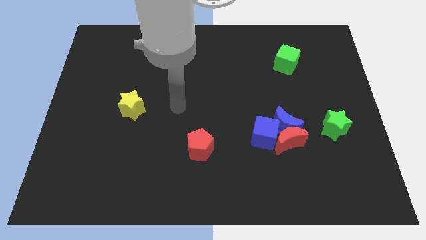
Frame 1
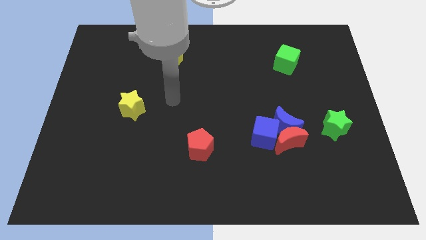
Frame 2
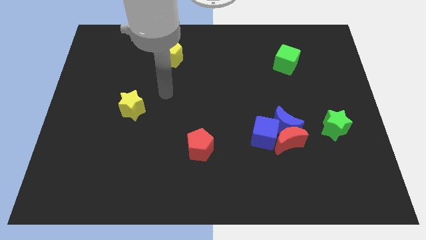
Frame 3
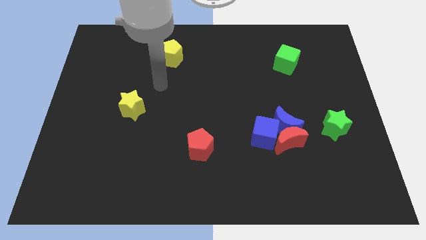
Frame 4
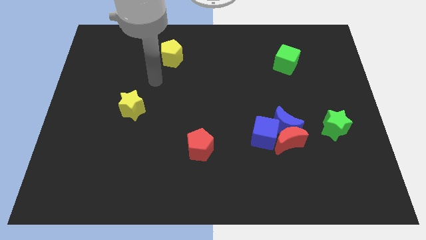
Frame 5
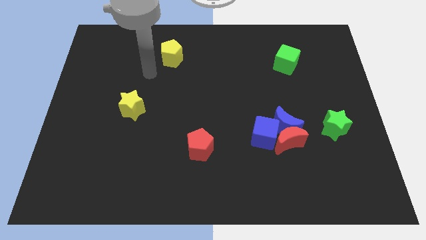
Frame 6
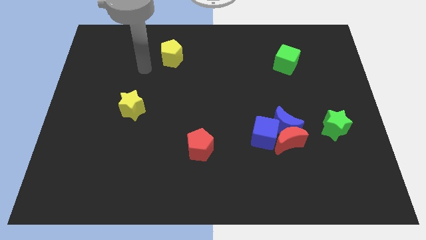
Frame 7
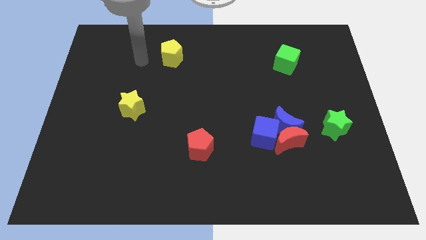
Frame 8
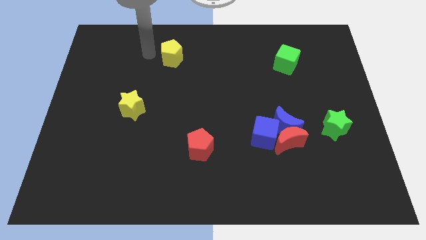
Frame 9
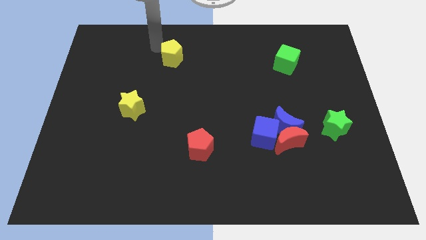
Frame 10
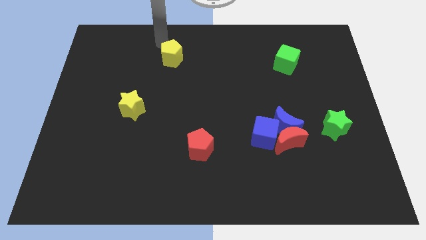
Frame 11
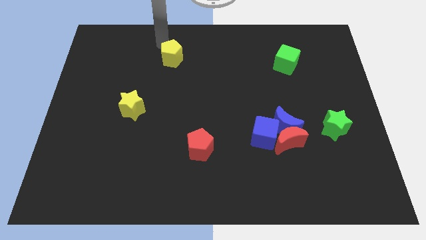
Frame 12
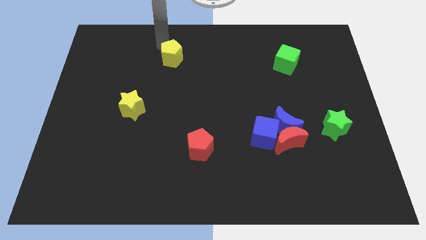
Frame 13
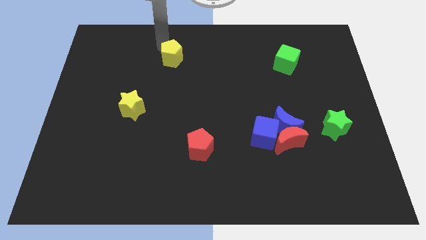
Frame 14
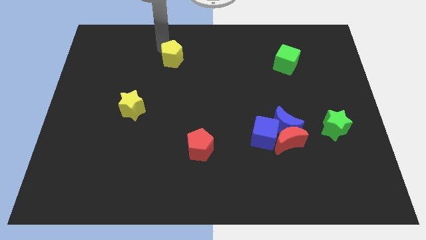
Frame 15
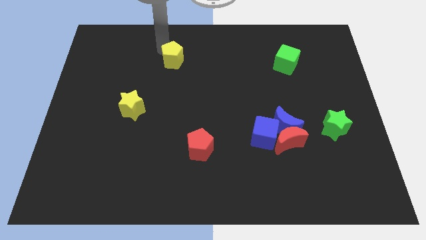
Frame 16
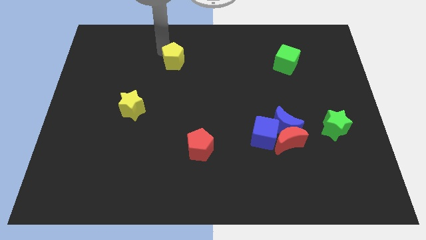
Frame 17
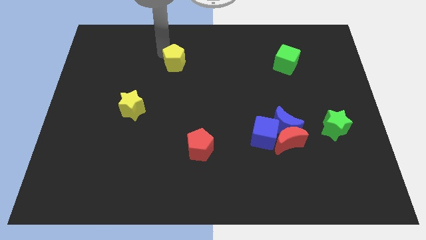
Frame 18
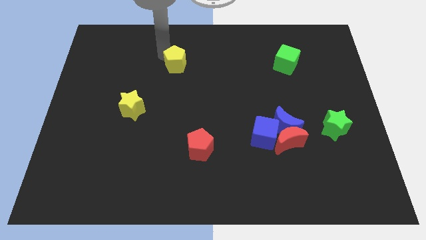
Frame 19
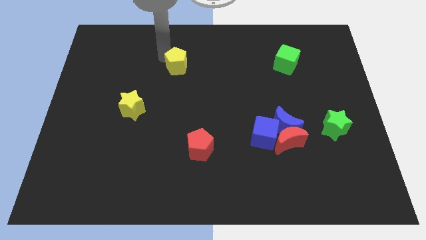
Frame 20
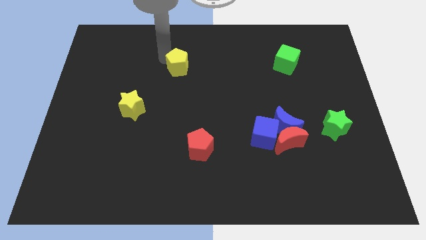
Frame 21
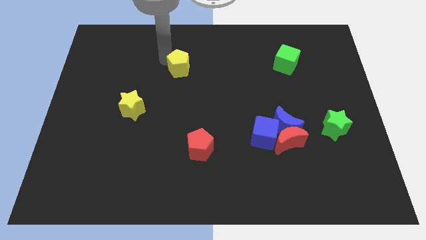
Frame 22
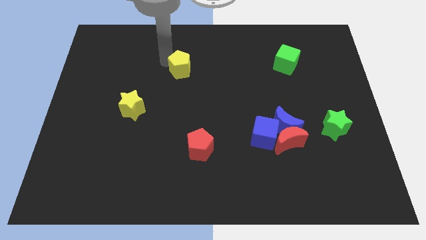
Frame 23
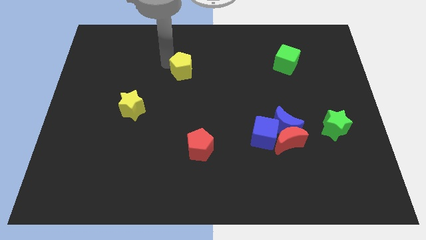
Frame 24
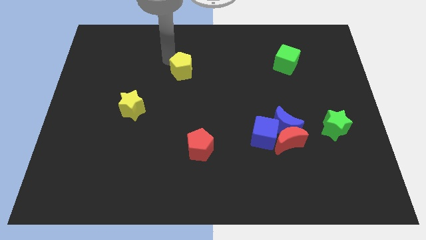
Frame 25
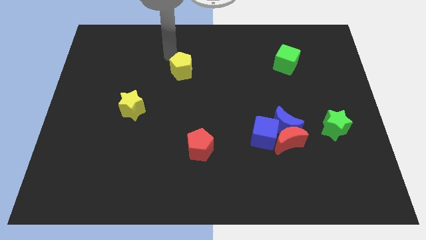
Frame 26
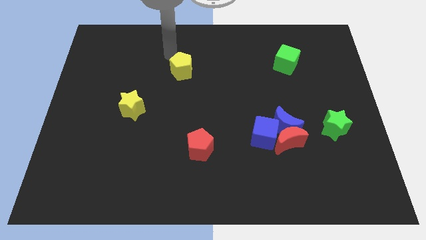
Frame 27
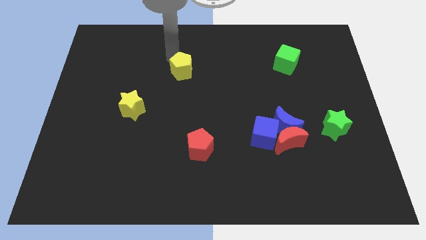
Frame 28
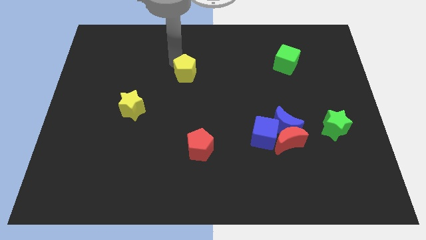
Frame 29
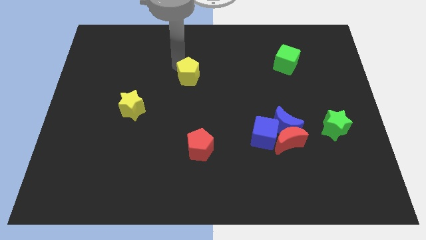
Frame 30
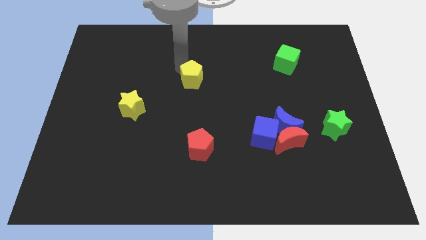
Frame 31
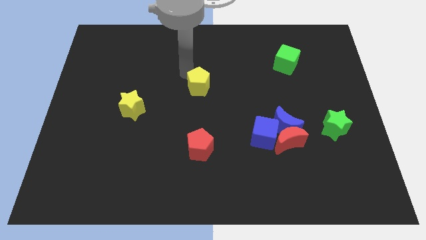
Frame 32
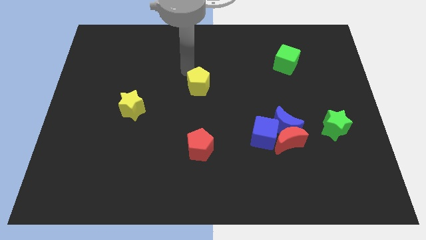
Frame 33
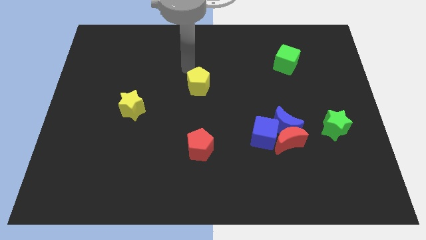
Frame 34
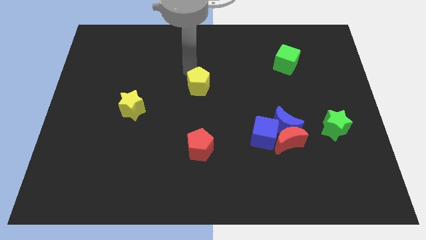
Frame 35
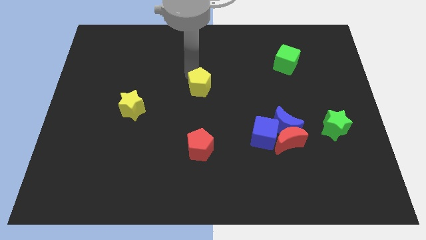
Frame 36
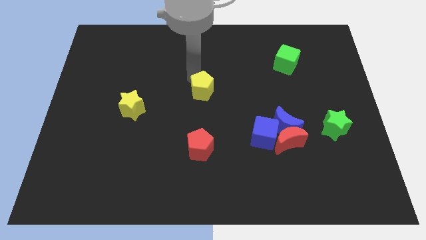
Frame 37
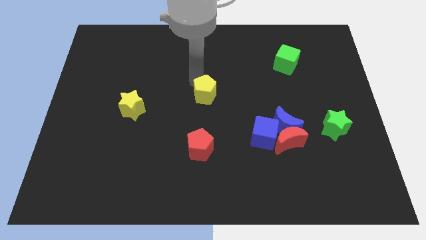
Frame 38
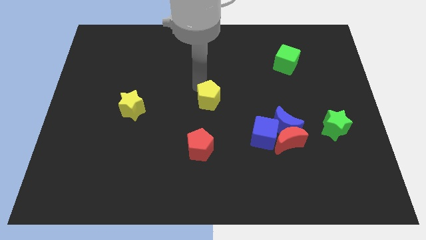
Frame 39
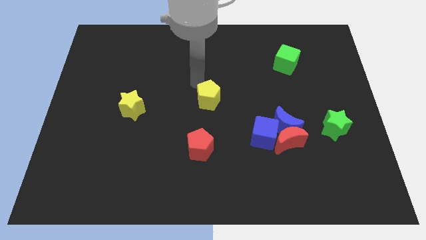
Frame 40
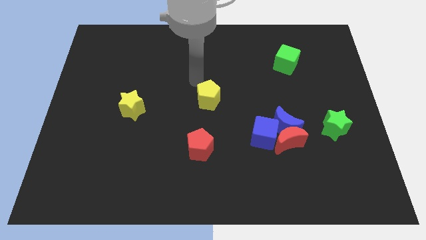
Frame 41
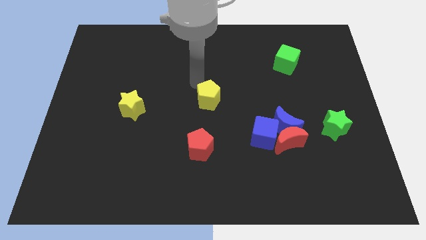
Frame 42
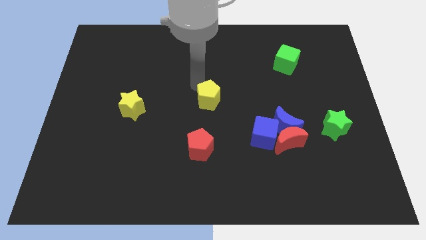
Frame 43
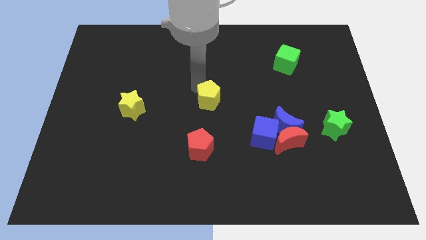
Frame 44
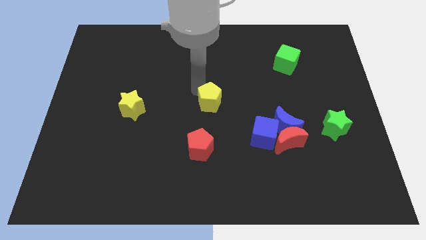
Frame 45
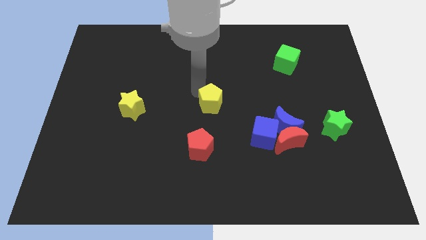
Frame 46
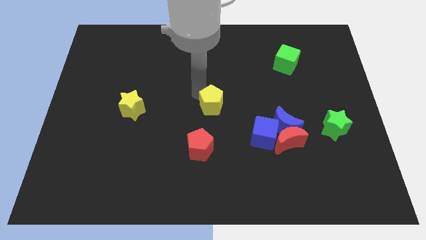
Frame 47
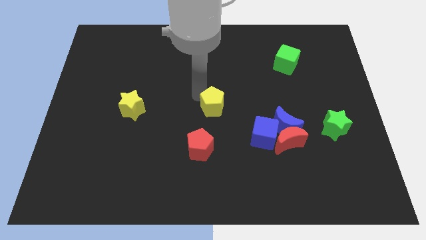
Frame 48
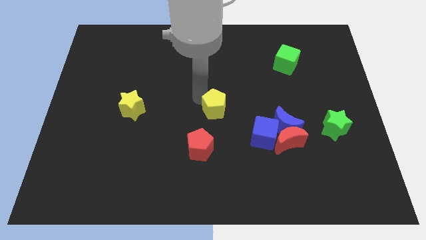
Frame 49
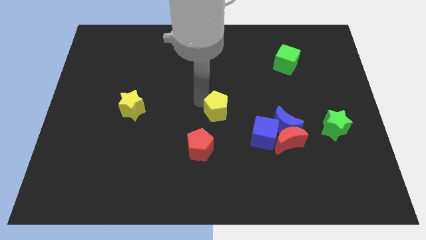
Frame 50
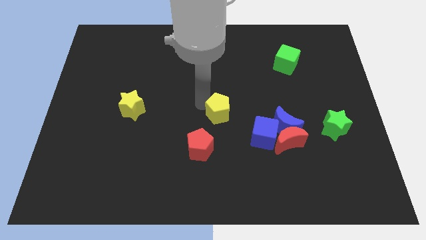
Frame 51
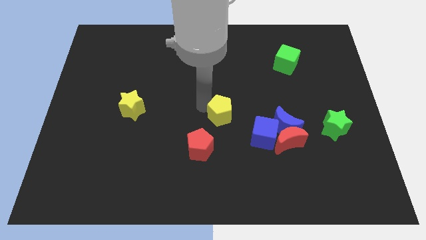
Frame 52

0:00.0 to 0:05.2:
move the yellow pentagon just left of the blue moon

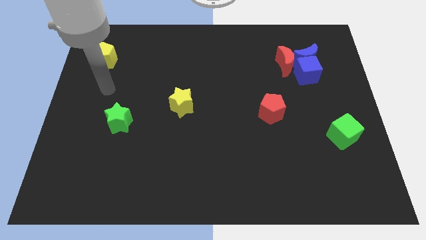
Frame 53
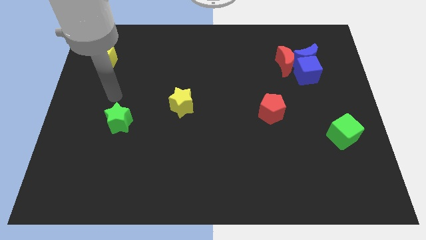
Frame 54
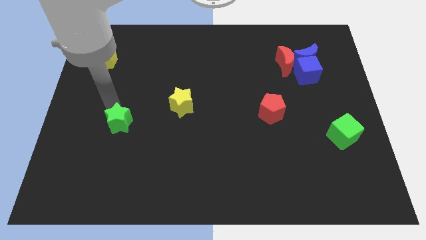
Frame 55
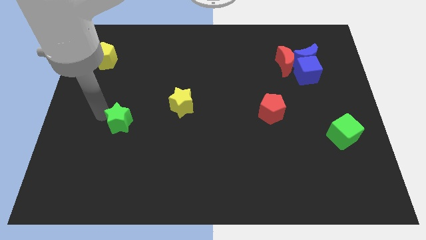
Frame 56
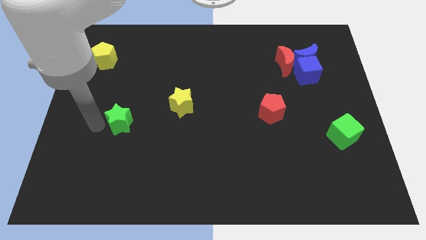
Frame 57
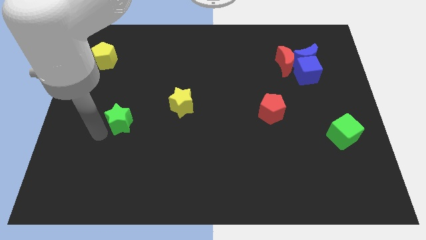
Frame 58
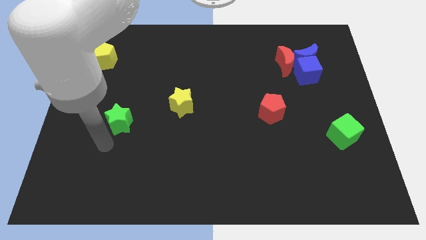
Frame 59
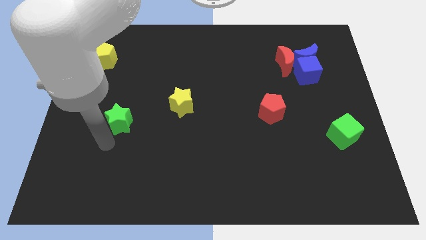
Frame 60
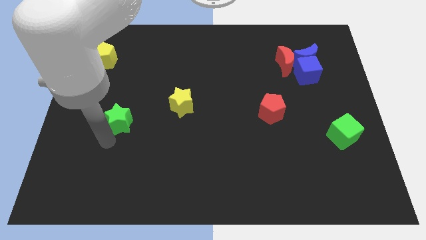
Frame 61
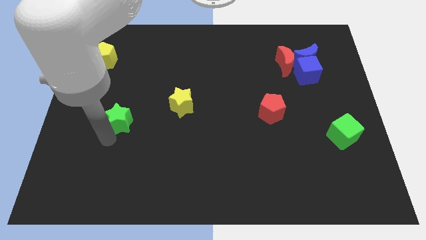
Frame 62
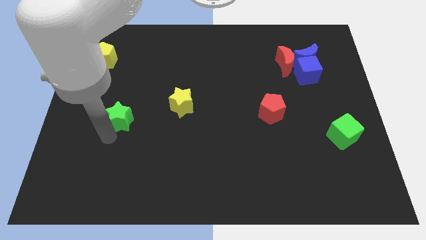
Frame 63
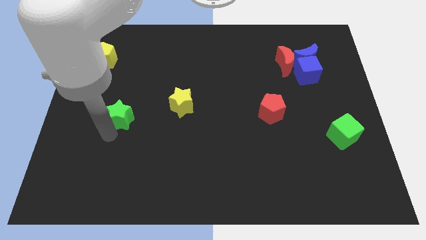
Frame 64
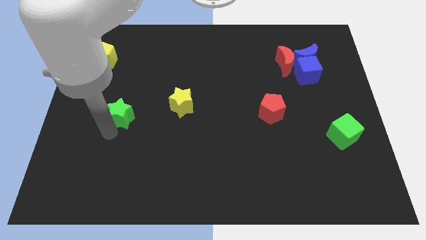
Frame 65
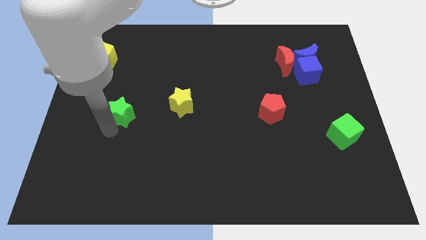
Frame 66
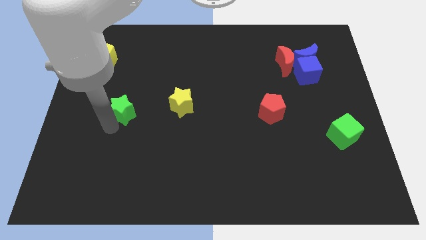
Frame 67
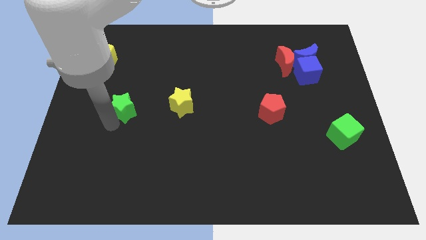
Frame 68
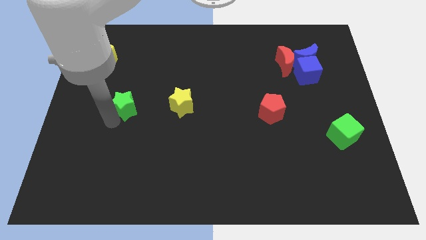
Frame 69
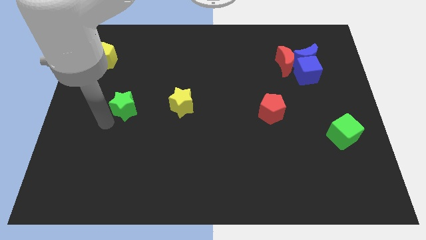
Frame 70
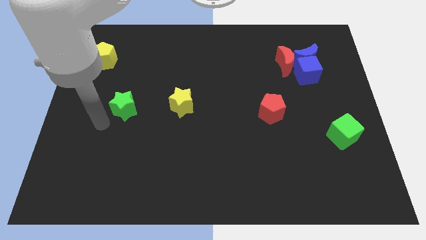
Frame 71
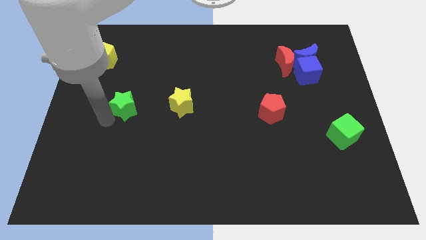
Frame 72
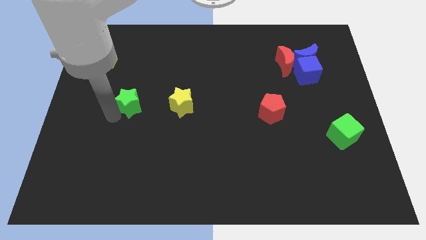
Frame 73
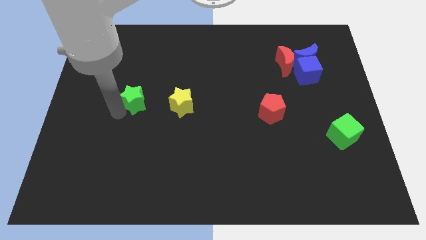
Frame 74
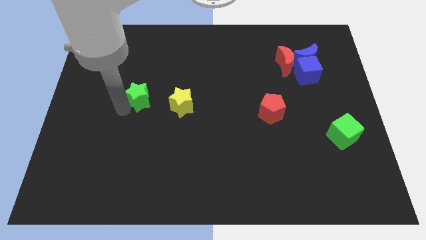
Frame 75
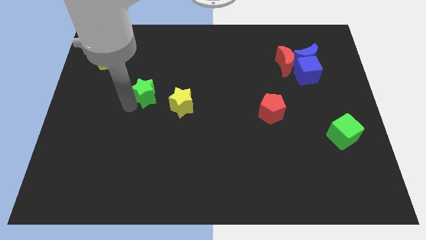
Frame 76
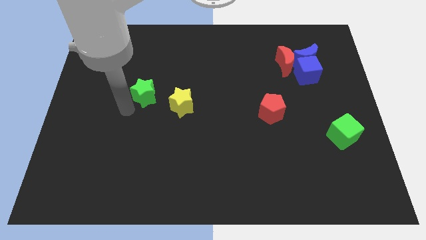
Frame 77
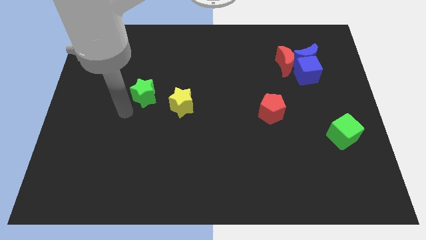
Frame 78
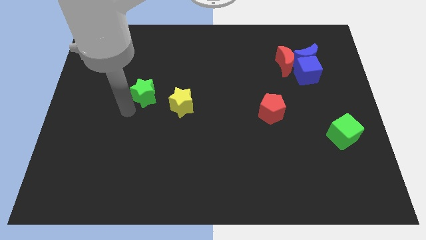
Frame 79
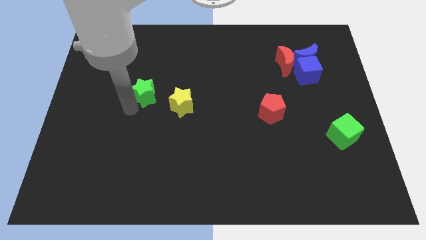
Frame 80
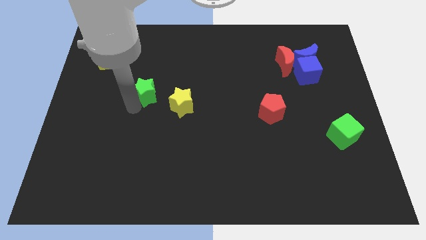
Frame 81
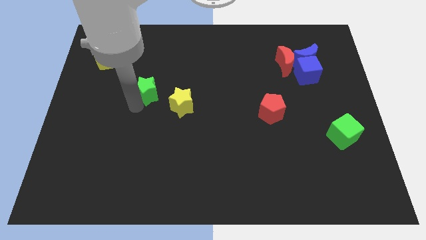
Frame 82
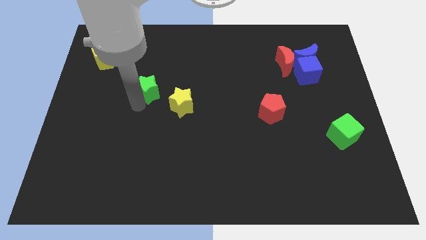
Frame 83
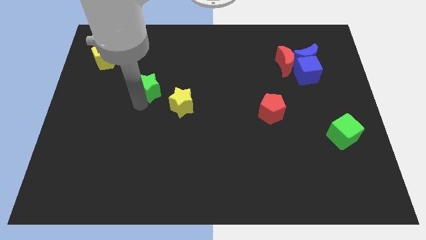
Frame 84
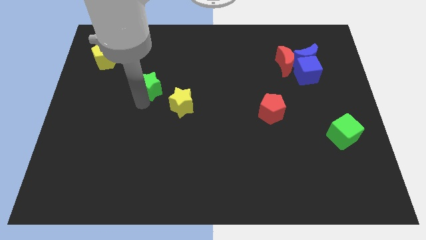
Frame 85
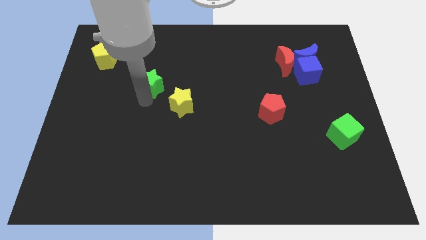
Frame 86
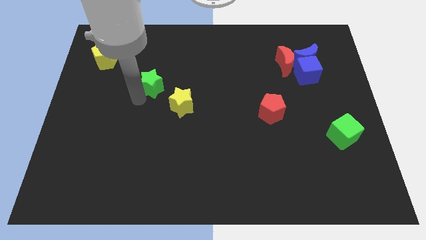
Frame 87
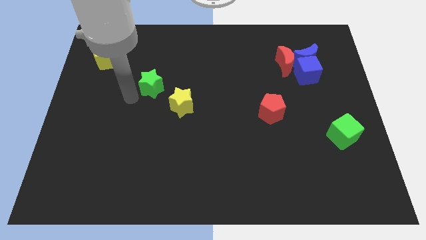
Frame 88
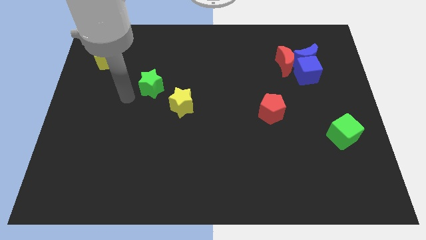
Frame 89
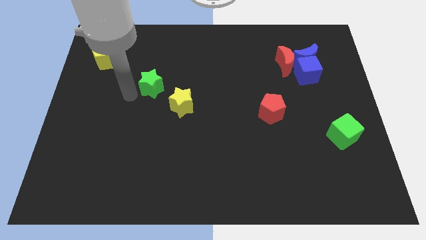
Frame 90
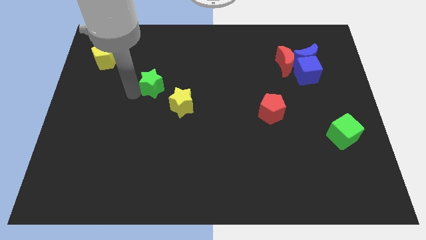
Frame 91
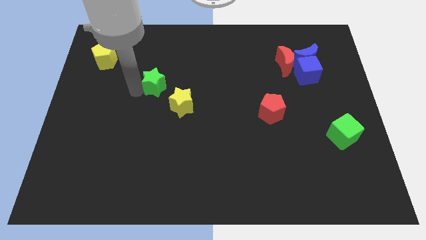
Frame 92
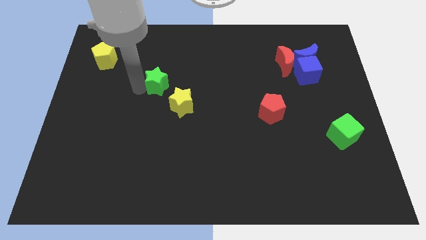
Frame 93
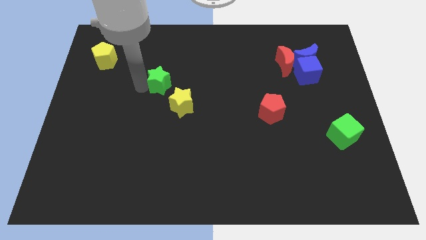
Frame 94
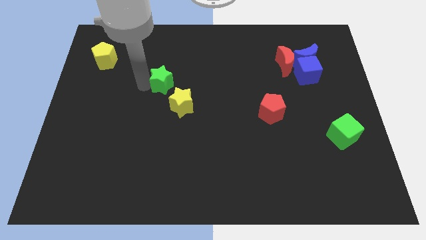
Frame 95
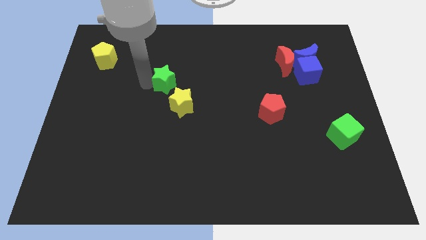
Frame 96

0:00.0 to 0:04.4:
put the green star to the top side of the yellow star
